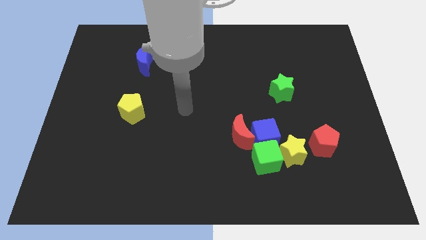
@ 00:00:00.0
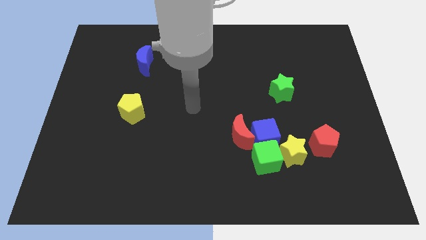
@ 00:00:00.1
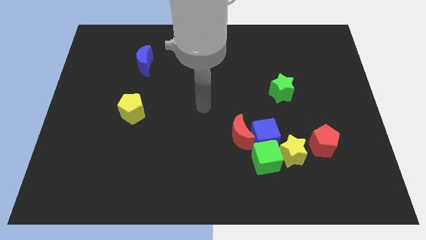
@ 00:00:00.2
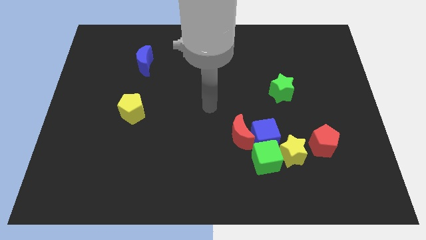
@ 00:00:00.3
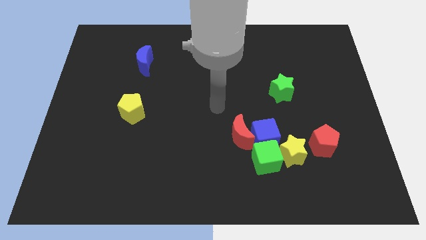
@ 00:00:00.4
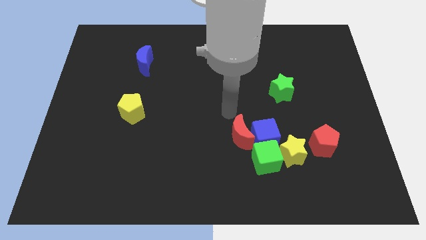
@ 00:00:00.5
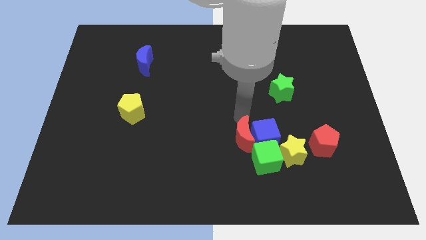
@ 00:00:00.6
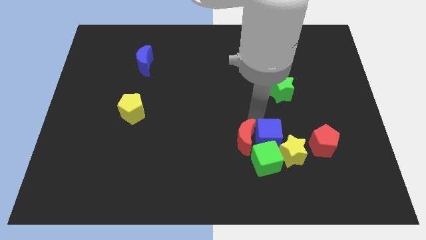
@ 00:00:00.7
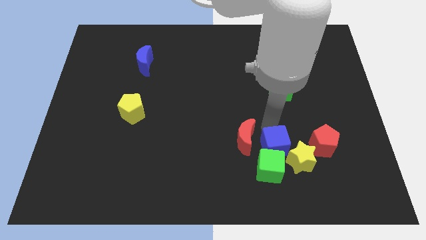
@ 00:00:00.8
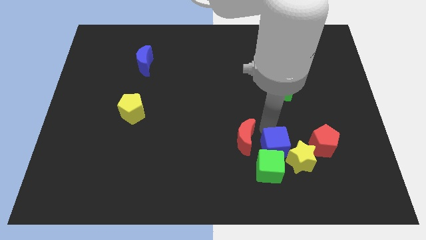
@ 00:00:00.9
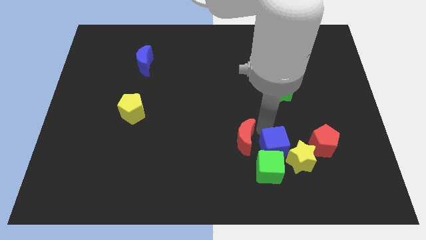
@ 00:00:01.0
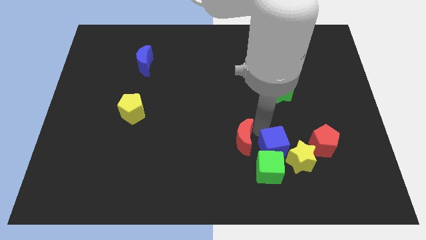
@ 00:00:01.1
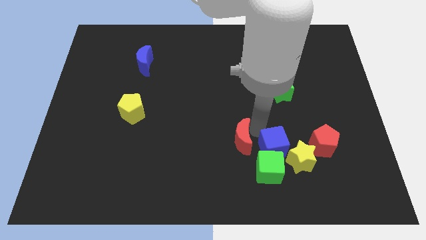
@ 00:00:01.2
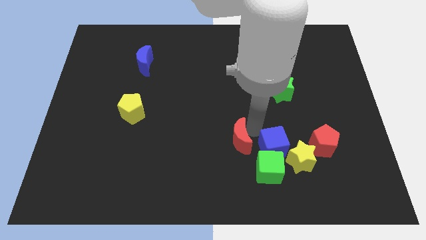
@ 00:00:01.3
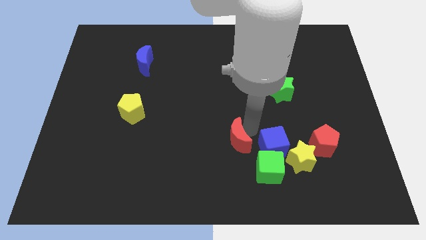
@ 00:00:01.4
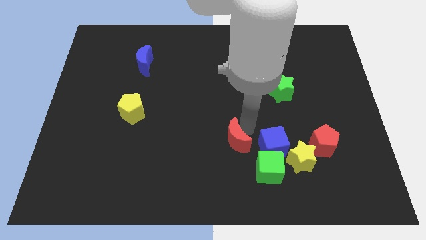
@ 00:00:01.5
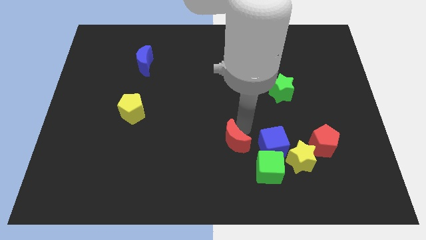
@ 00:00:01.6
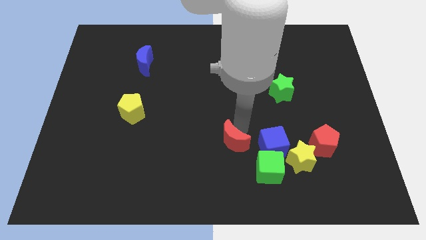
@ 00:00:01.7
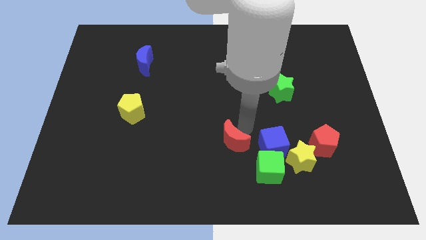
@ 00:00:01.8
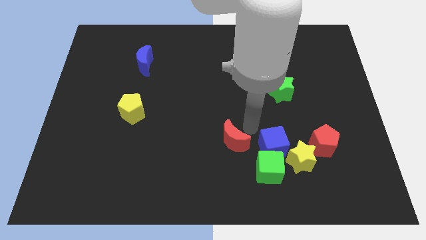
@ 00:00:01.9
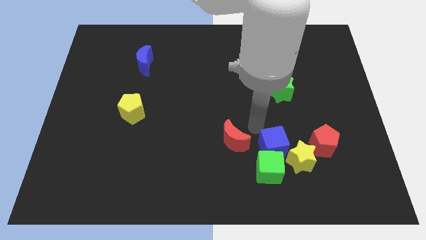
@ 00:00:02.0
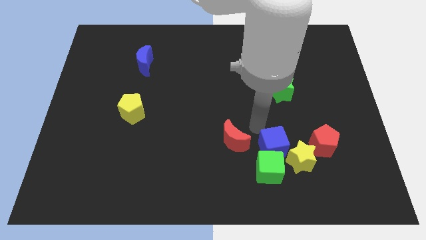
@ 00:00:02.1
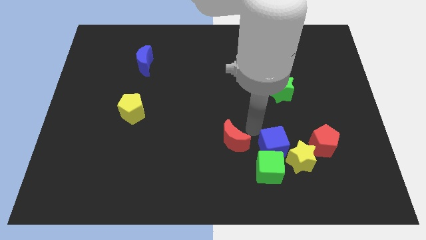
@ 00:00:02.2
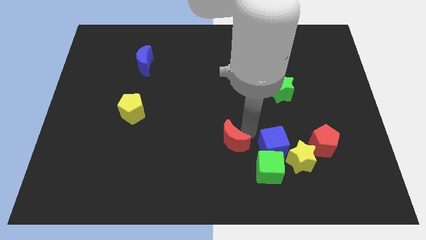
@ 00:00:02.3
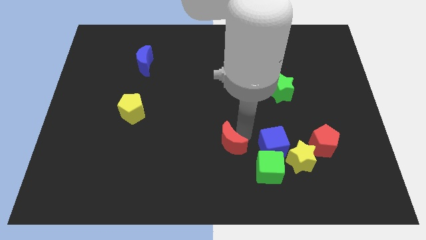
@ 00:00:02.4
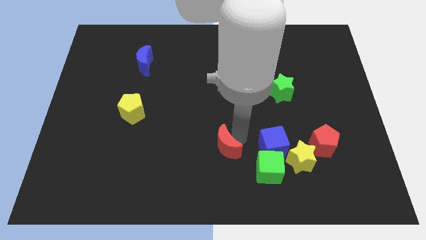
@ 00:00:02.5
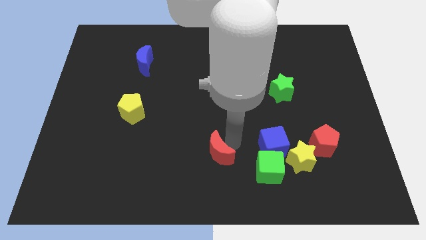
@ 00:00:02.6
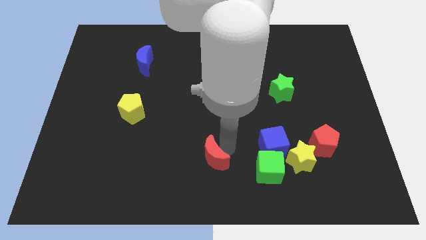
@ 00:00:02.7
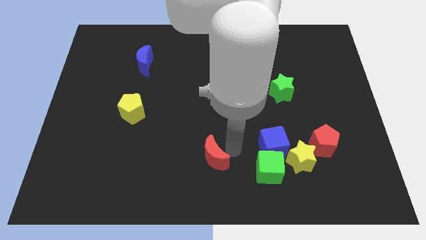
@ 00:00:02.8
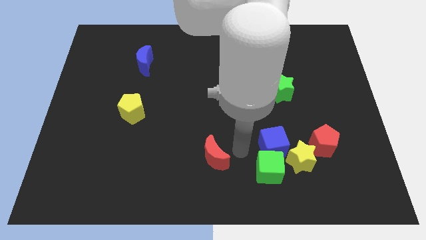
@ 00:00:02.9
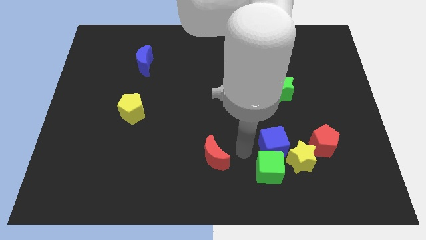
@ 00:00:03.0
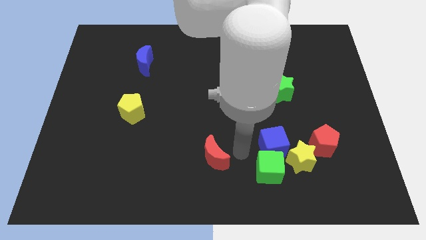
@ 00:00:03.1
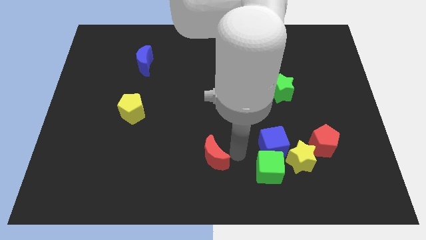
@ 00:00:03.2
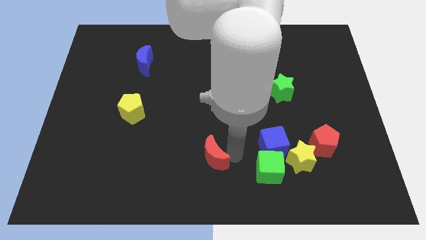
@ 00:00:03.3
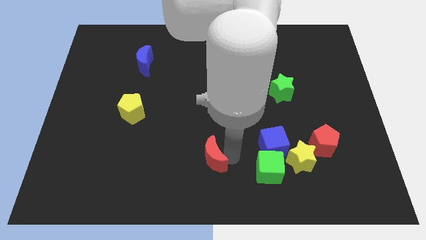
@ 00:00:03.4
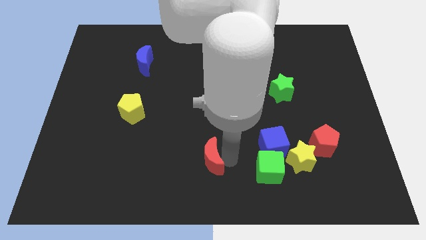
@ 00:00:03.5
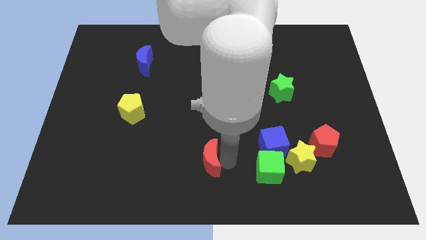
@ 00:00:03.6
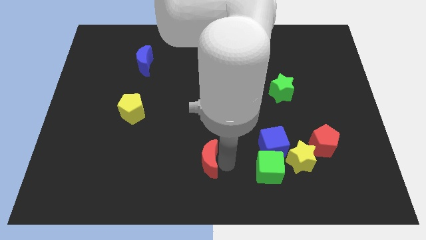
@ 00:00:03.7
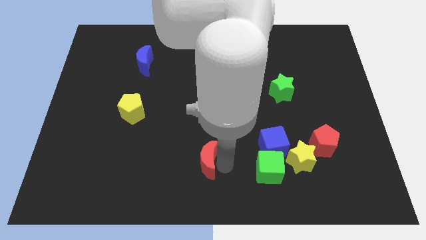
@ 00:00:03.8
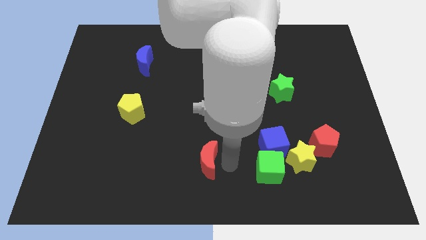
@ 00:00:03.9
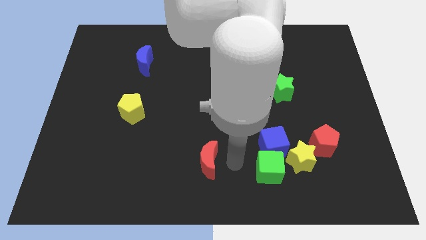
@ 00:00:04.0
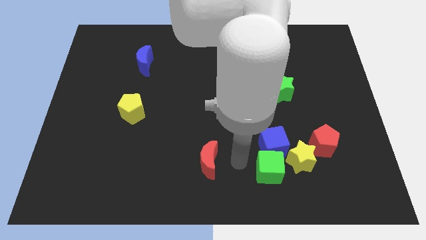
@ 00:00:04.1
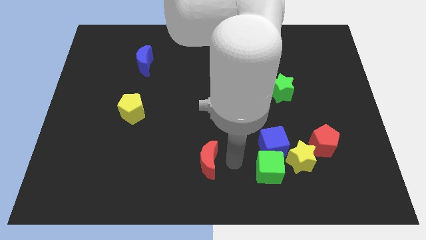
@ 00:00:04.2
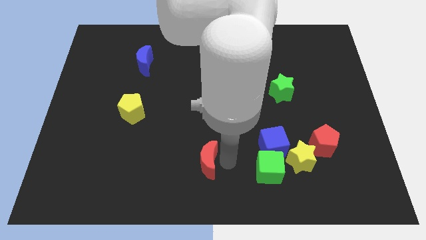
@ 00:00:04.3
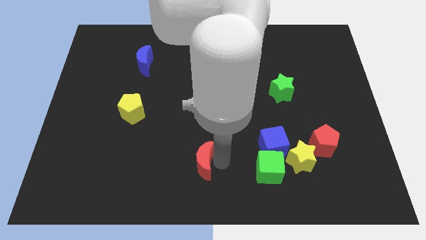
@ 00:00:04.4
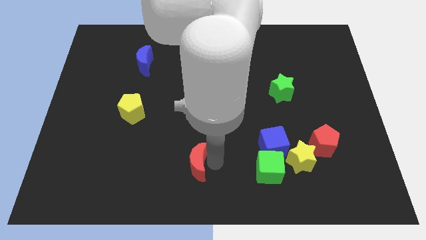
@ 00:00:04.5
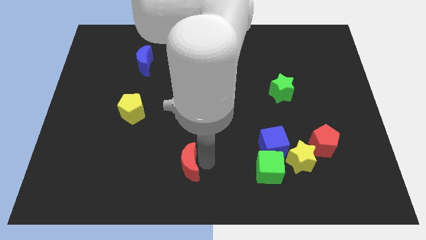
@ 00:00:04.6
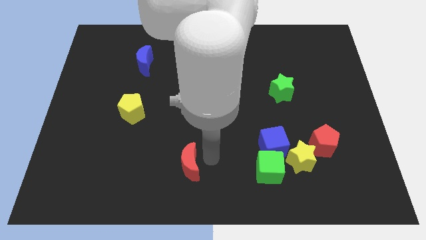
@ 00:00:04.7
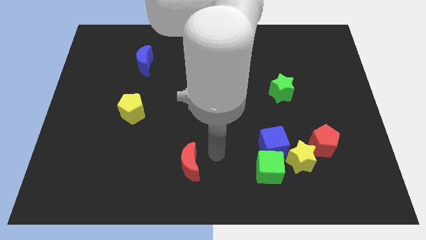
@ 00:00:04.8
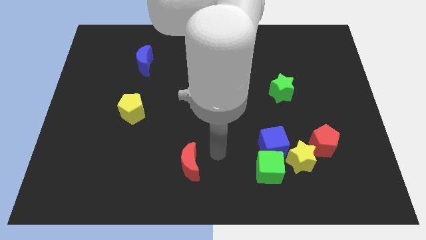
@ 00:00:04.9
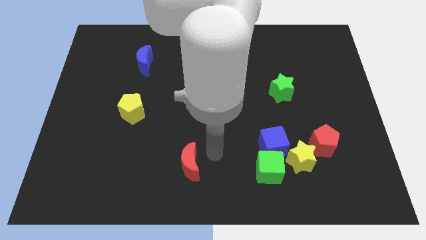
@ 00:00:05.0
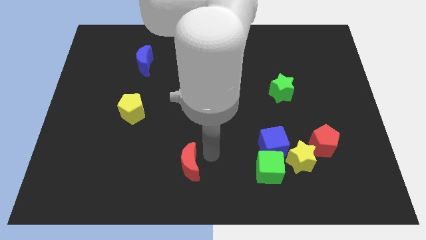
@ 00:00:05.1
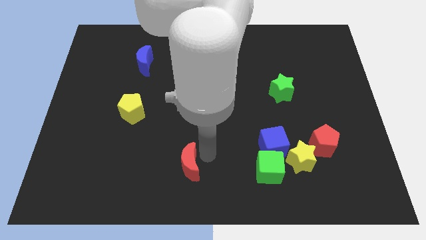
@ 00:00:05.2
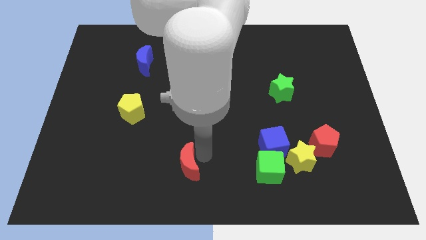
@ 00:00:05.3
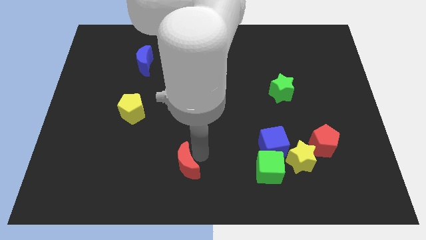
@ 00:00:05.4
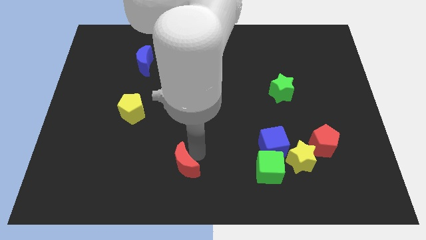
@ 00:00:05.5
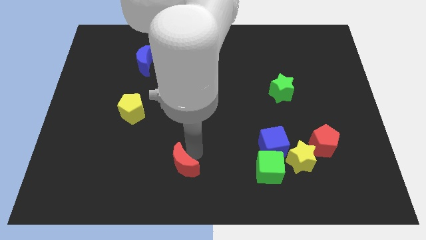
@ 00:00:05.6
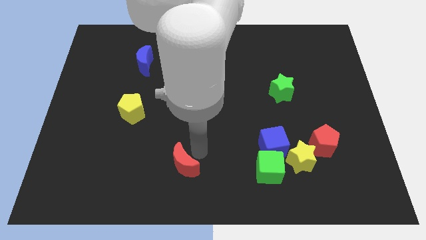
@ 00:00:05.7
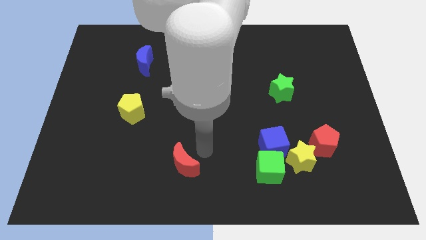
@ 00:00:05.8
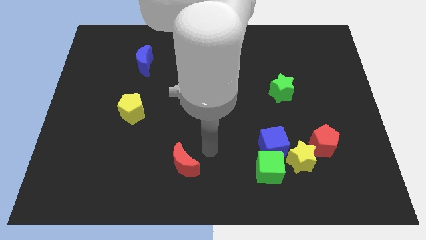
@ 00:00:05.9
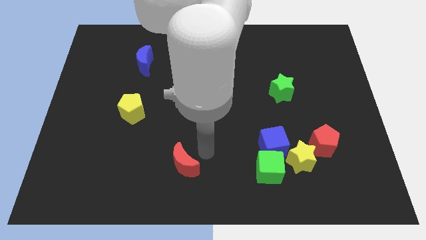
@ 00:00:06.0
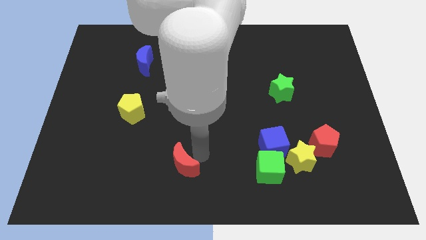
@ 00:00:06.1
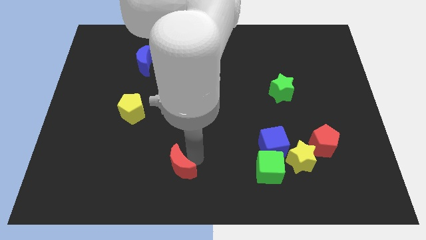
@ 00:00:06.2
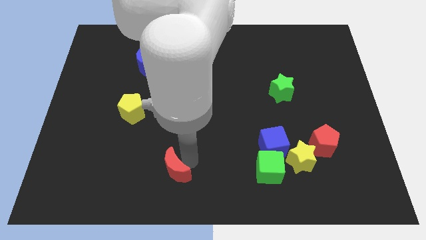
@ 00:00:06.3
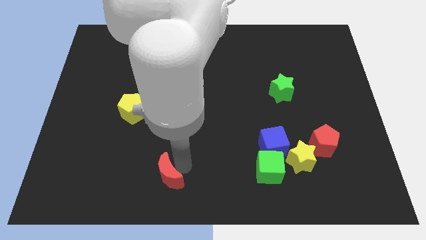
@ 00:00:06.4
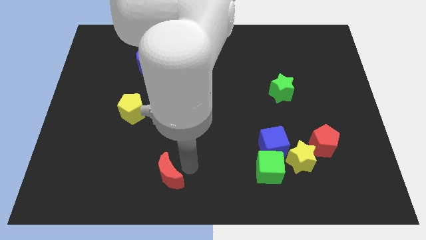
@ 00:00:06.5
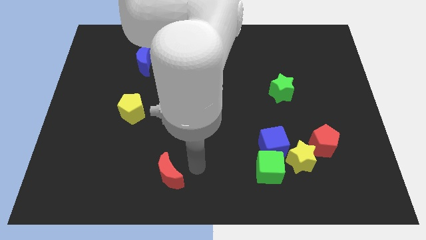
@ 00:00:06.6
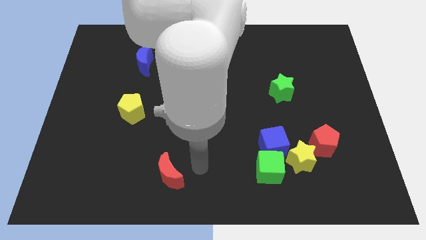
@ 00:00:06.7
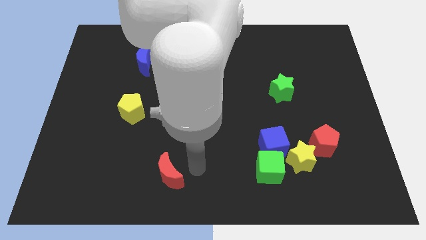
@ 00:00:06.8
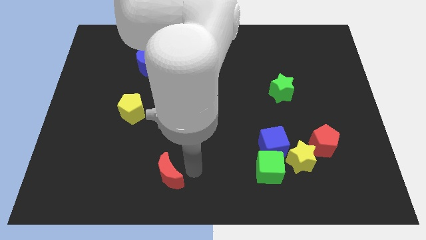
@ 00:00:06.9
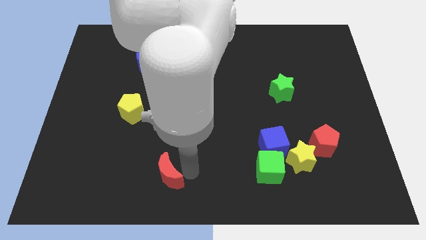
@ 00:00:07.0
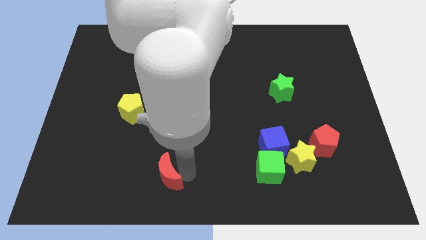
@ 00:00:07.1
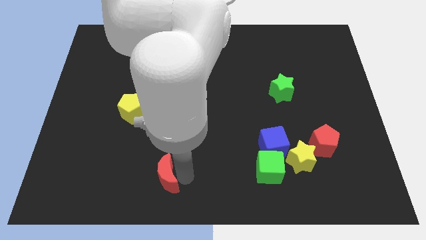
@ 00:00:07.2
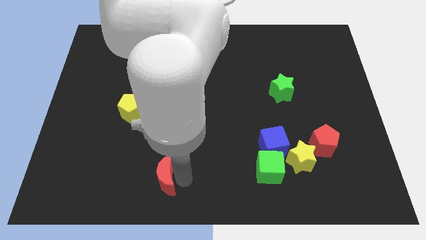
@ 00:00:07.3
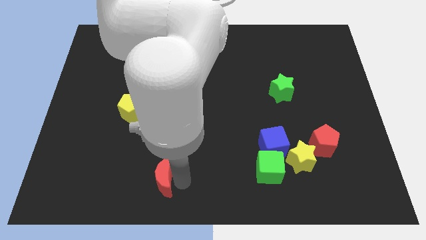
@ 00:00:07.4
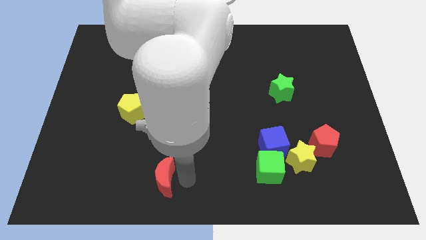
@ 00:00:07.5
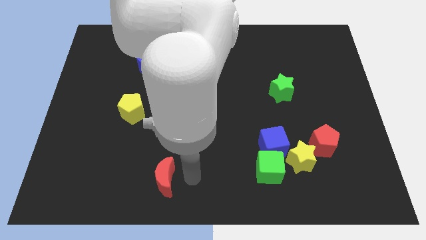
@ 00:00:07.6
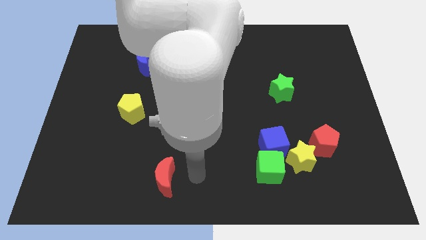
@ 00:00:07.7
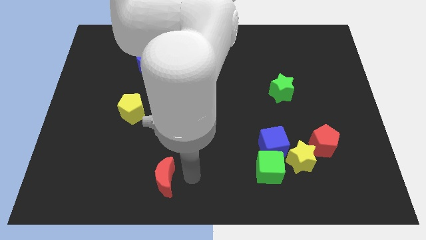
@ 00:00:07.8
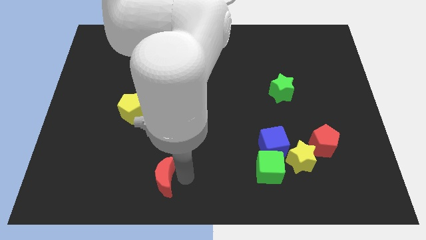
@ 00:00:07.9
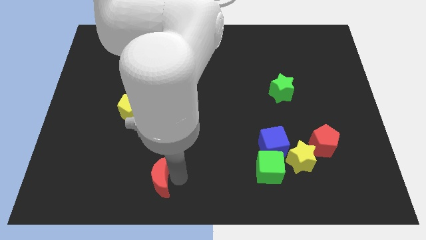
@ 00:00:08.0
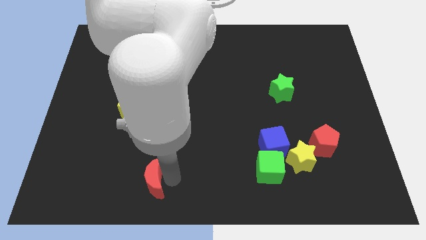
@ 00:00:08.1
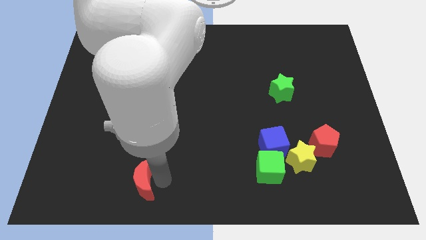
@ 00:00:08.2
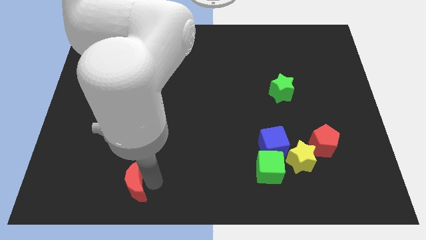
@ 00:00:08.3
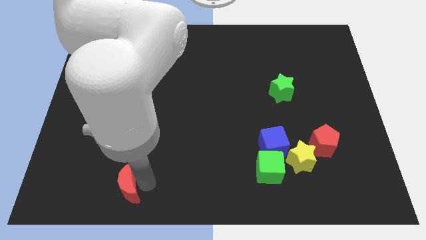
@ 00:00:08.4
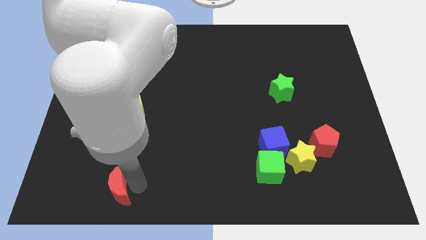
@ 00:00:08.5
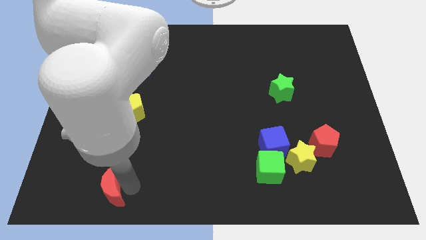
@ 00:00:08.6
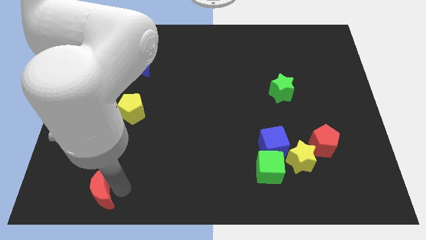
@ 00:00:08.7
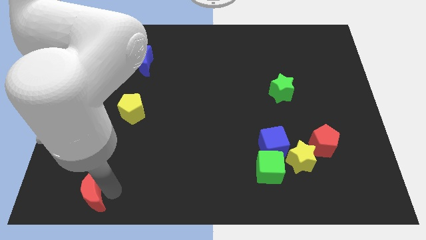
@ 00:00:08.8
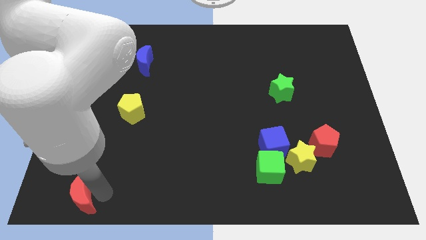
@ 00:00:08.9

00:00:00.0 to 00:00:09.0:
push the red moon to the bottom left of the board
